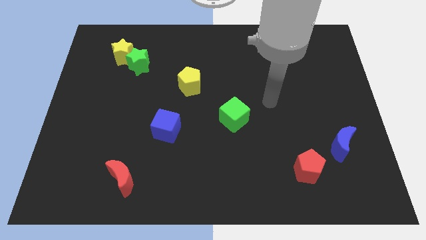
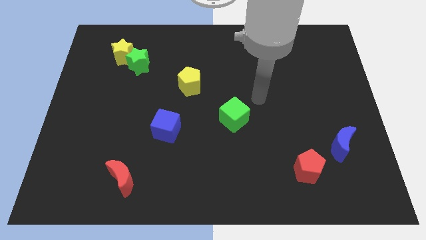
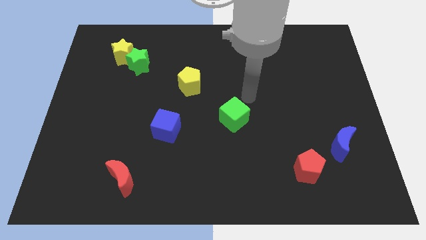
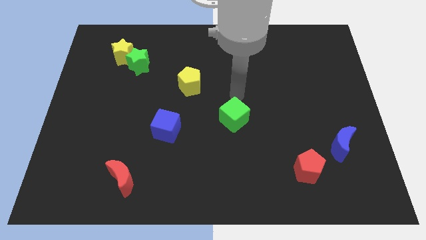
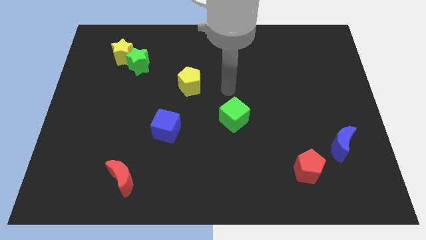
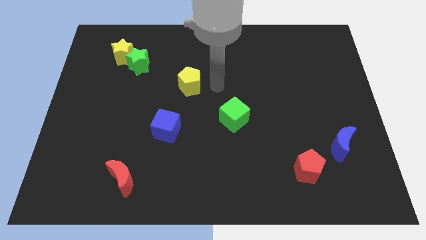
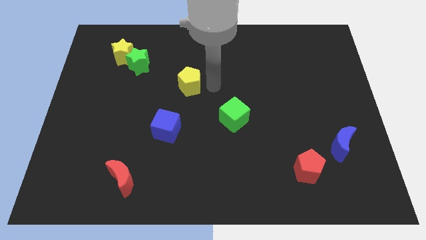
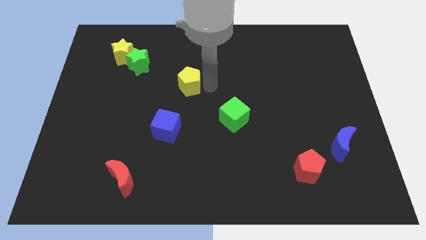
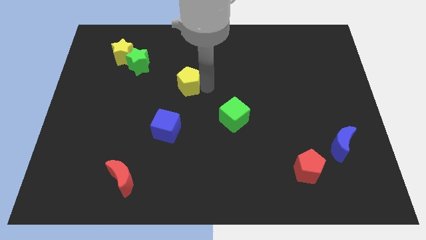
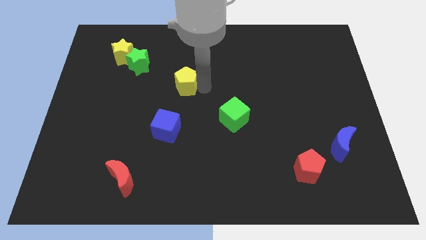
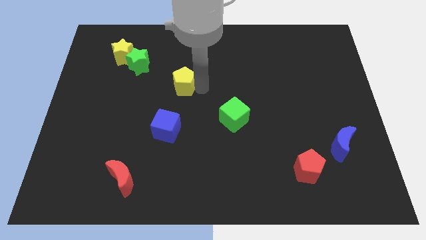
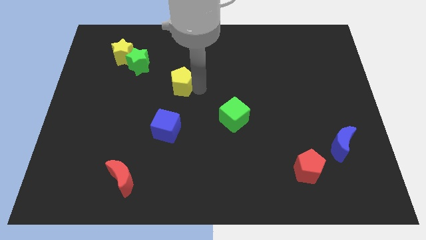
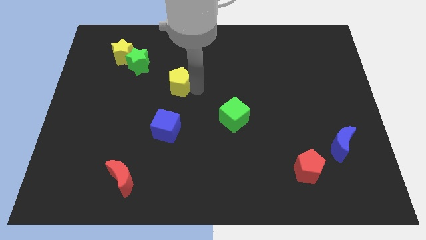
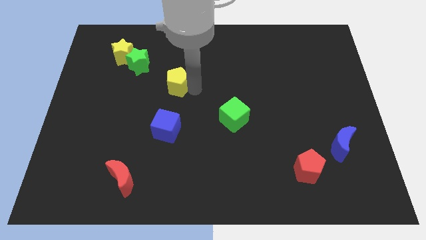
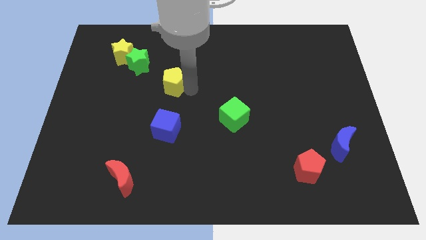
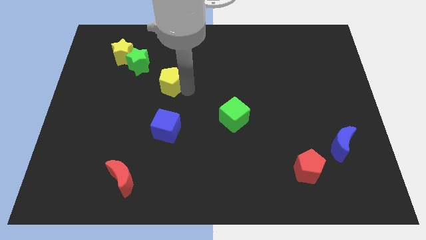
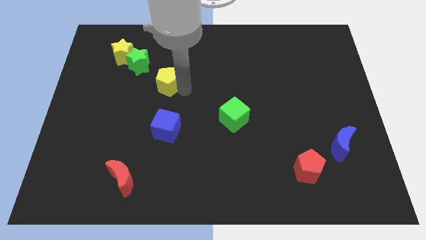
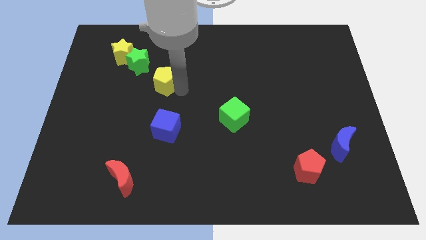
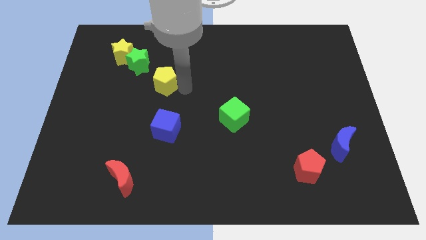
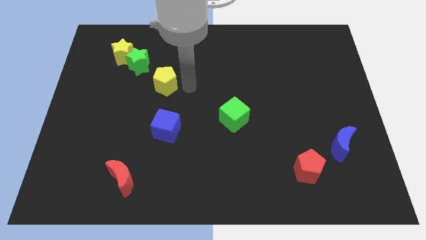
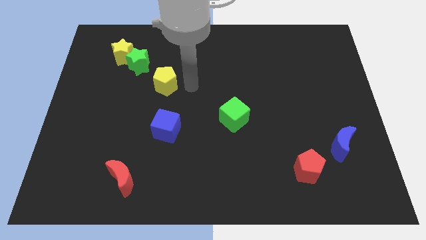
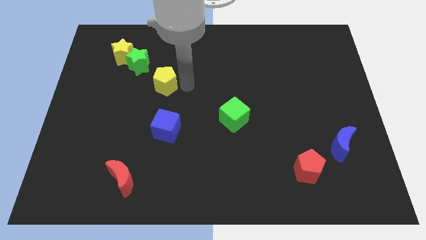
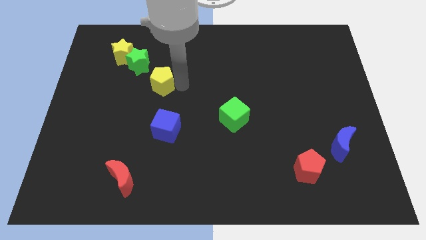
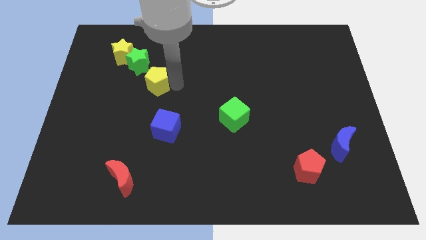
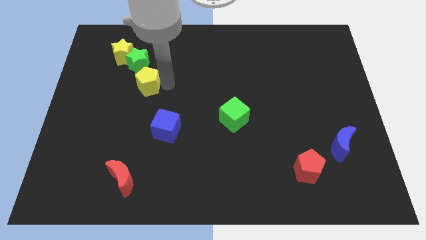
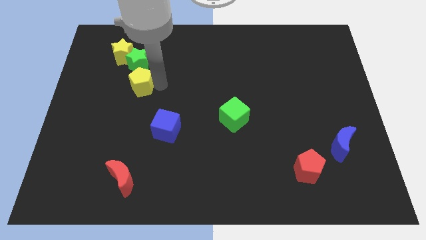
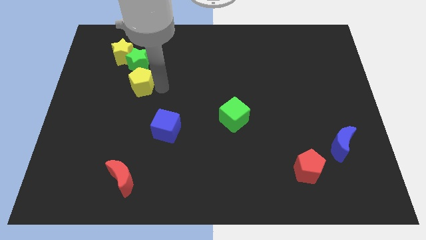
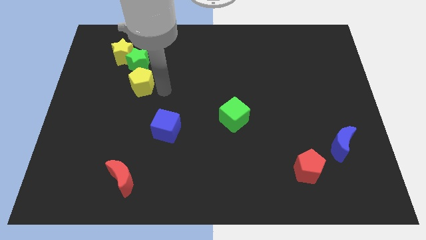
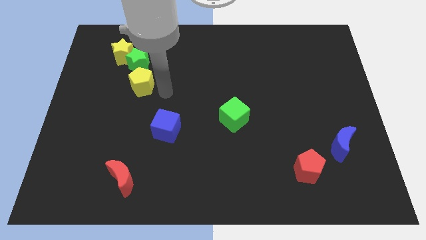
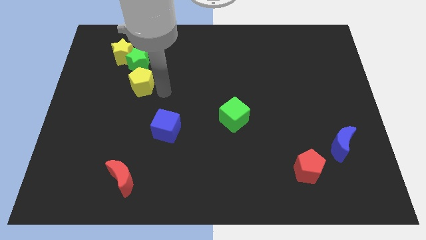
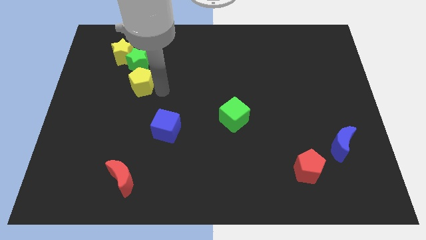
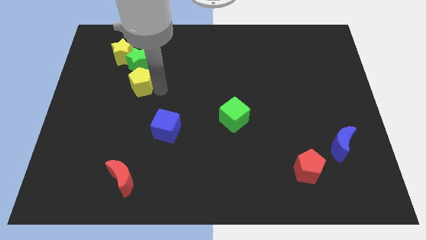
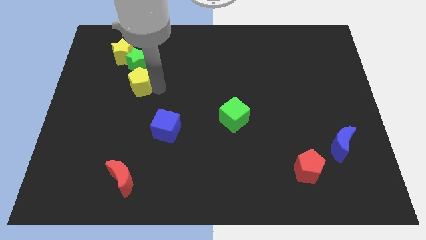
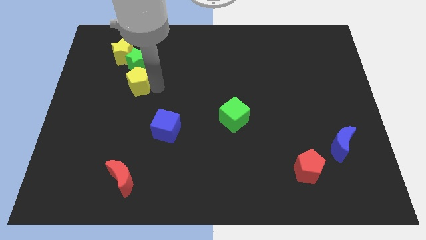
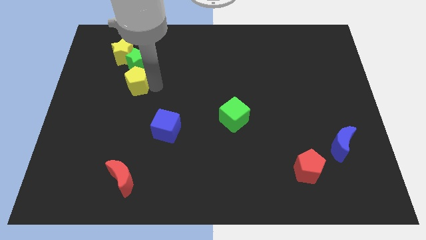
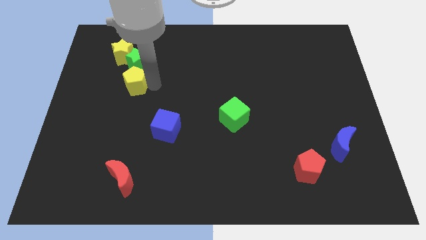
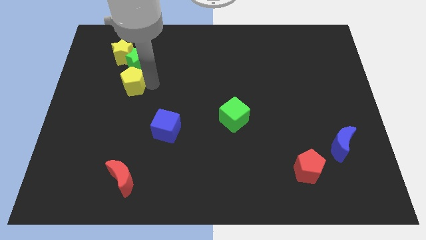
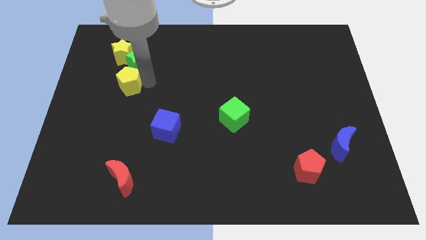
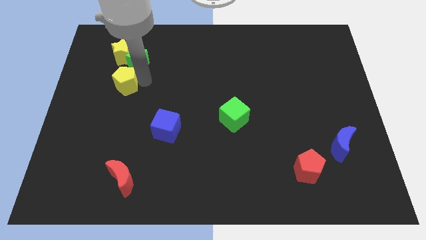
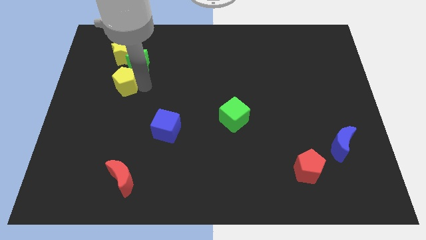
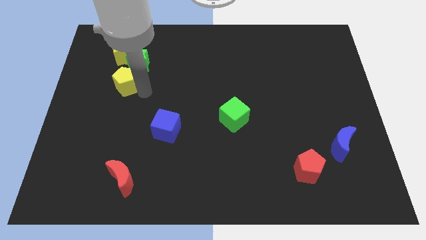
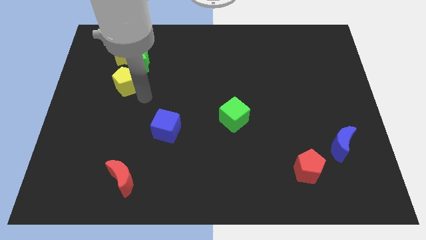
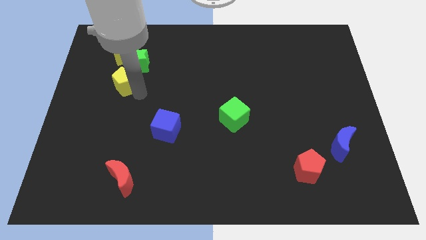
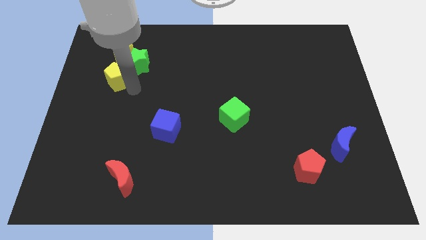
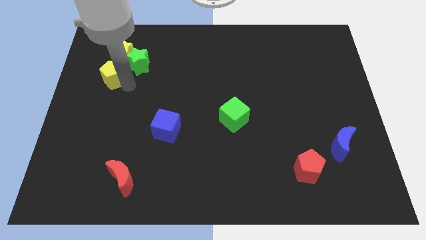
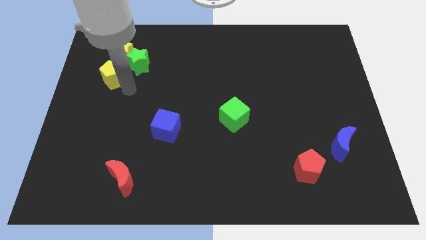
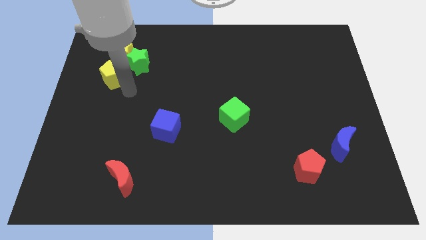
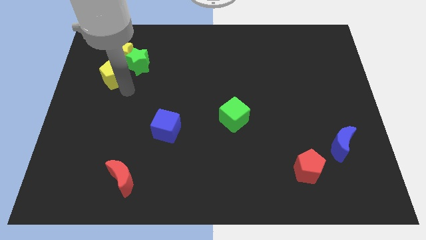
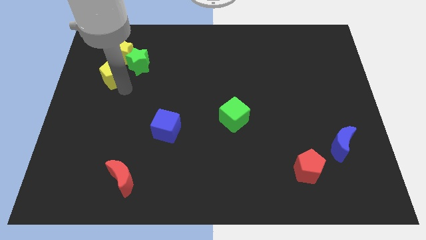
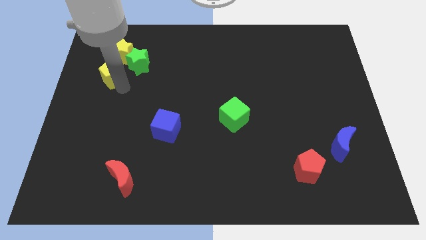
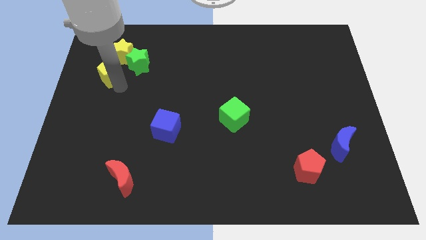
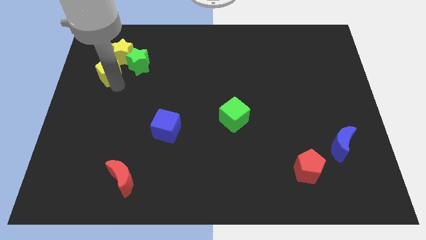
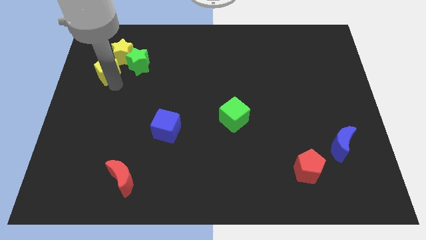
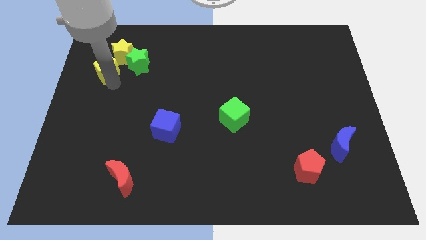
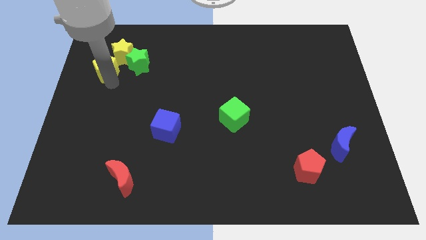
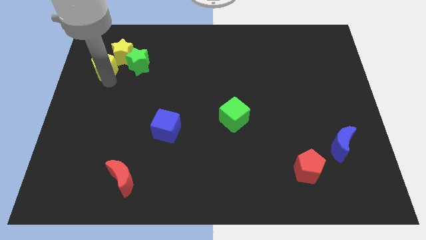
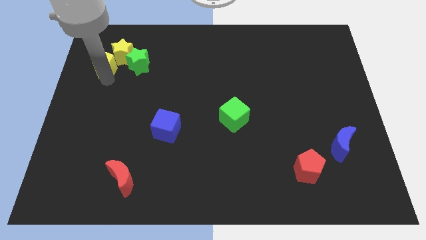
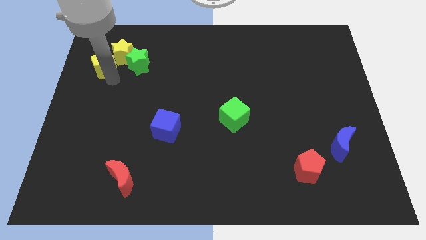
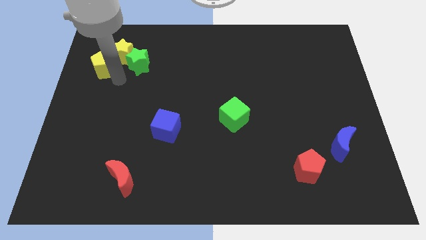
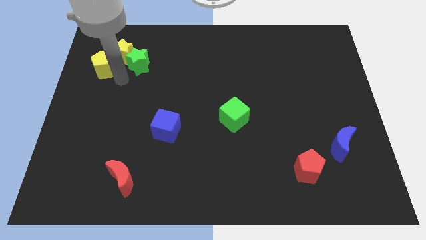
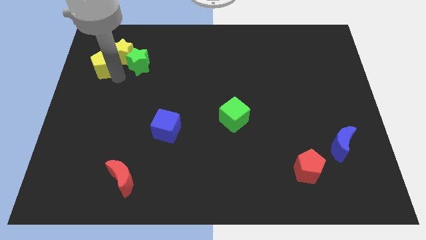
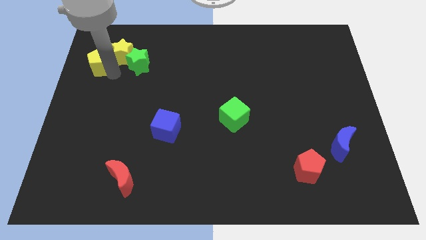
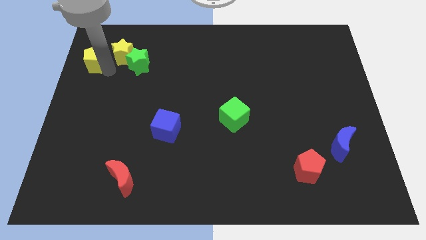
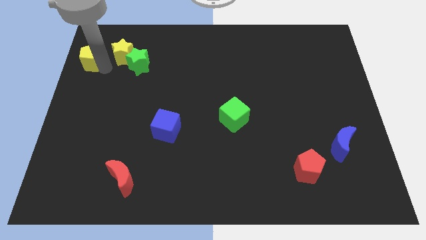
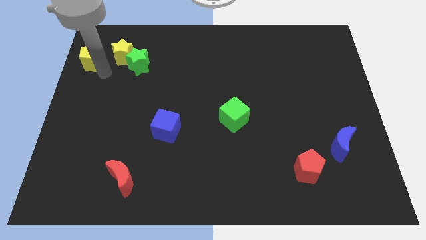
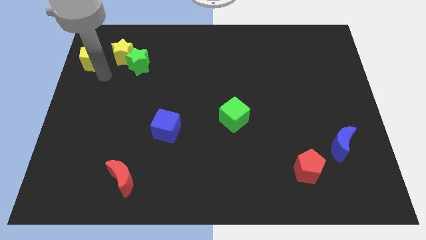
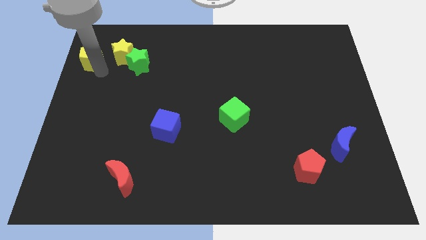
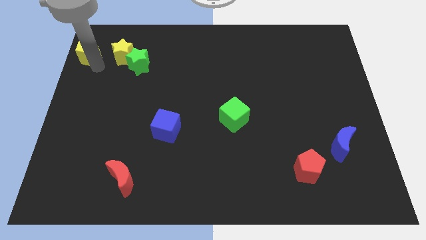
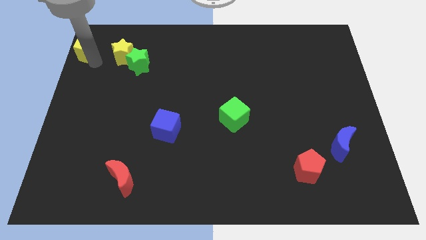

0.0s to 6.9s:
slide the yellow pentagon to the top left of the board

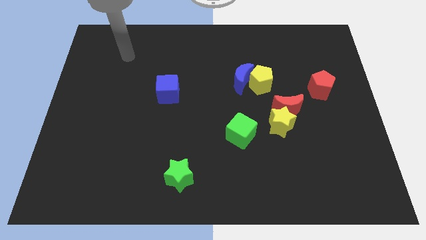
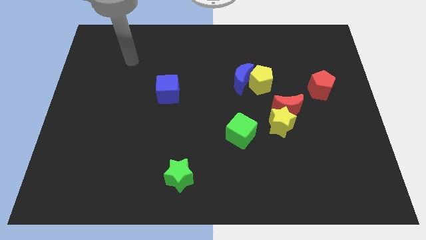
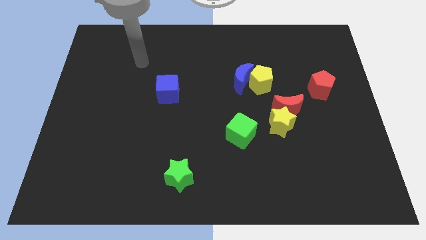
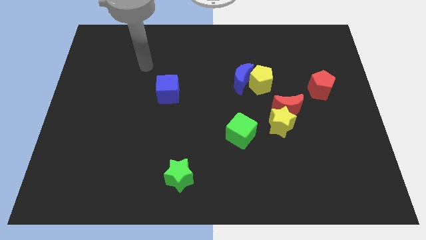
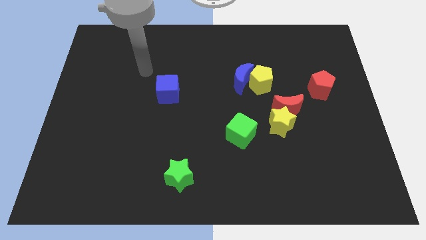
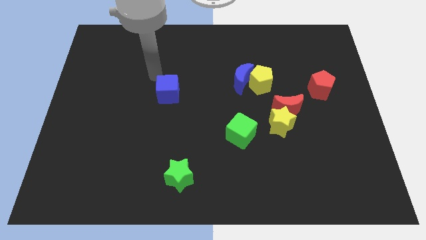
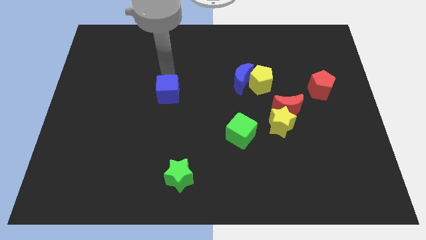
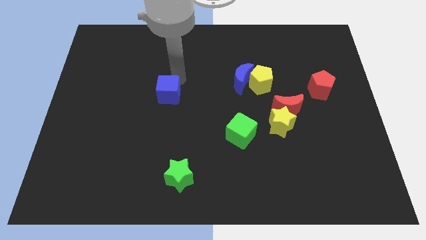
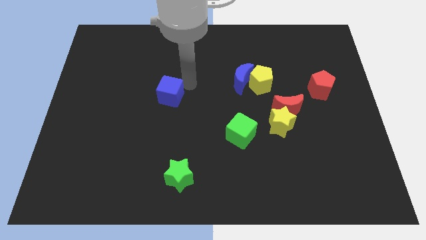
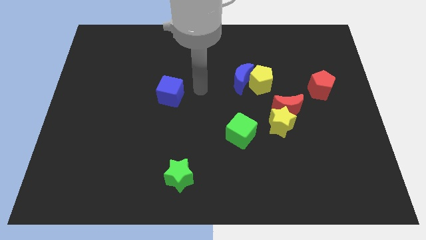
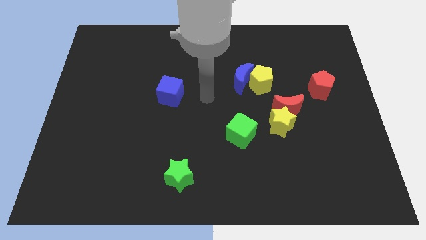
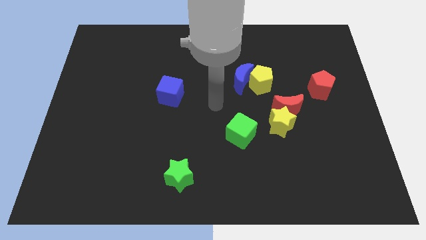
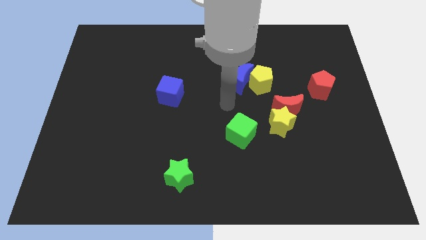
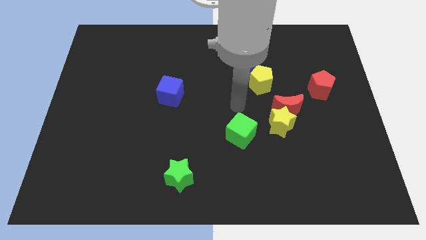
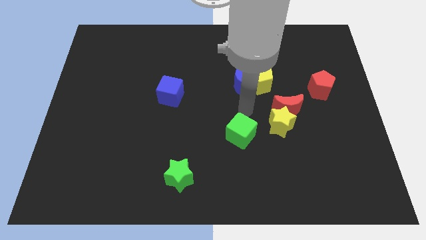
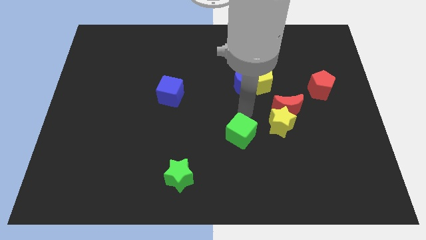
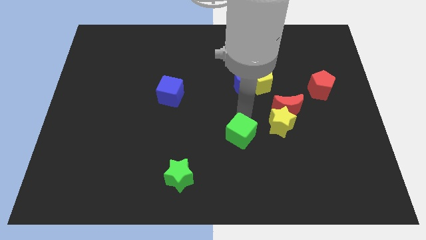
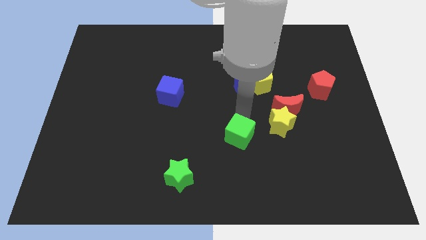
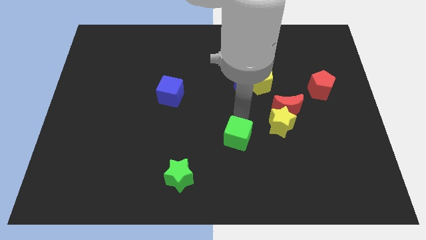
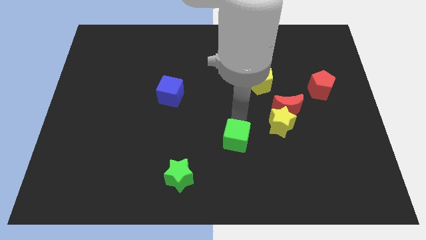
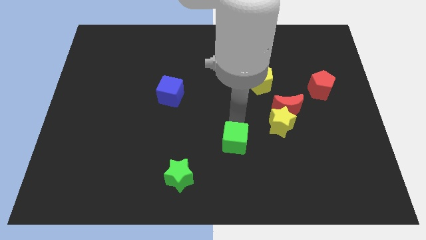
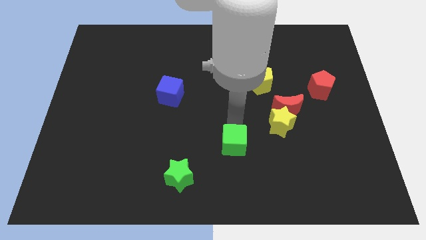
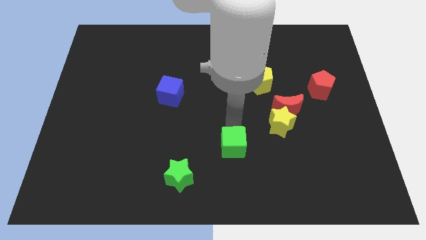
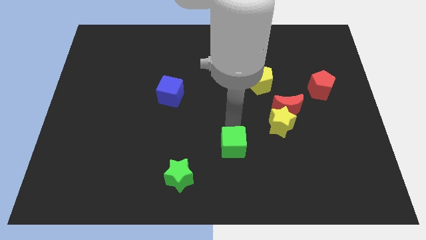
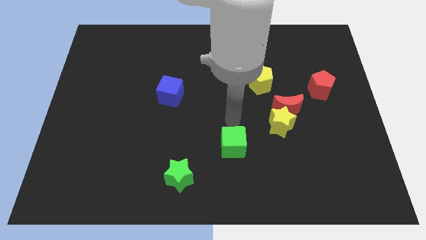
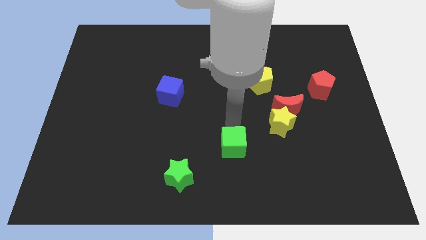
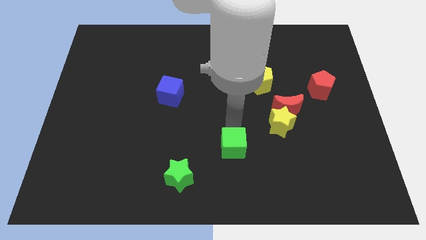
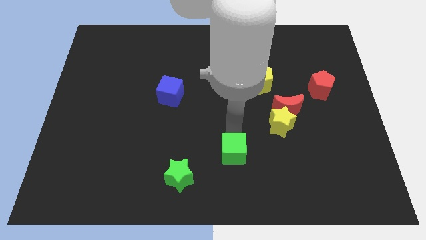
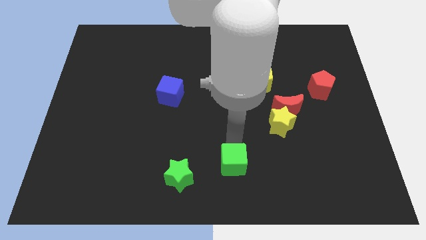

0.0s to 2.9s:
slide the green cube to the bottom
